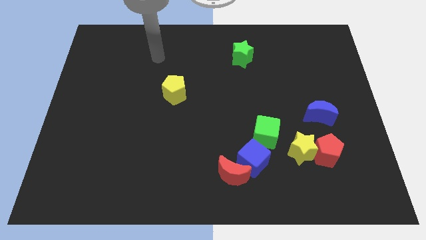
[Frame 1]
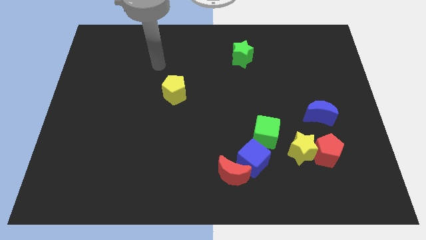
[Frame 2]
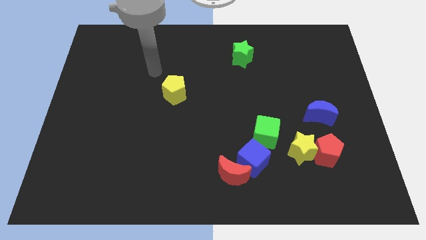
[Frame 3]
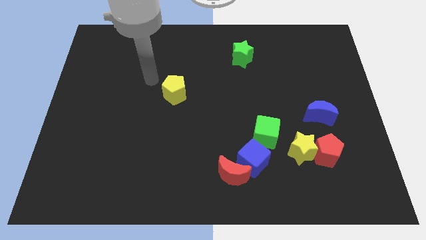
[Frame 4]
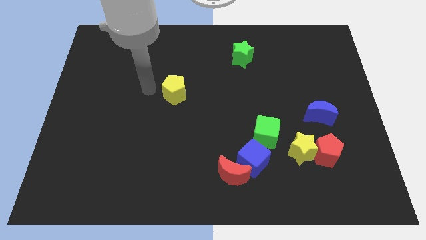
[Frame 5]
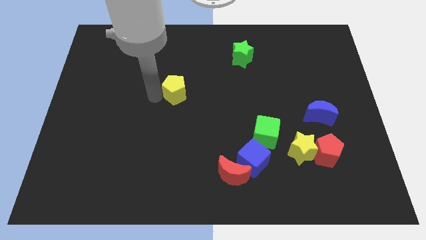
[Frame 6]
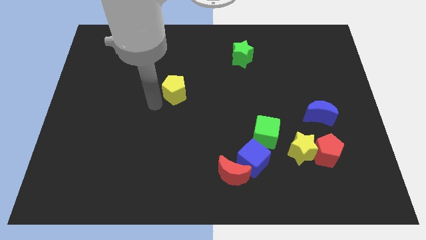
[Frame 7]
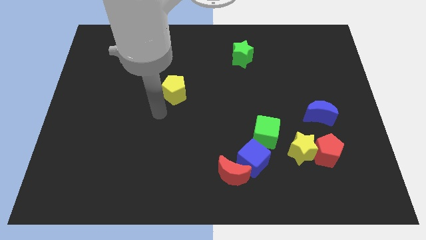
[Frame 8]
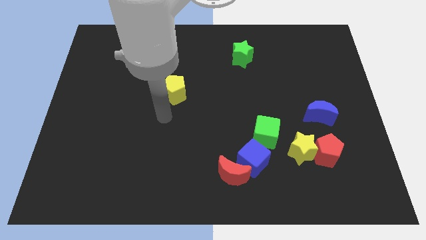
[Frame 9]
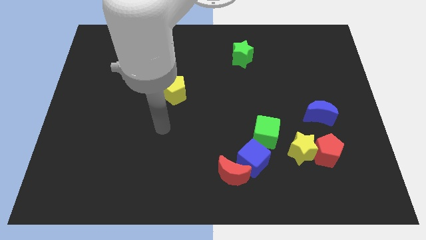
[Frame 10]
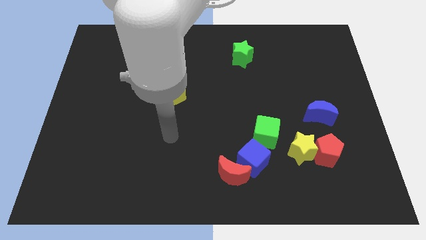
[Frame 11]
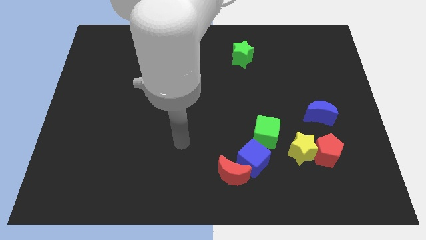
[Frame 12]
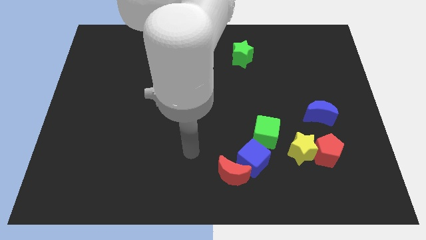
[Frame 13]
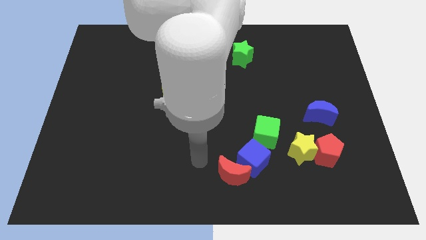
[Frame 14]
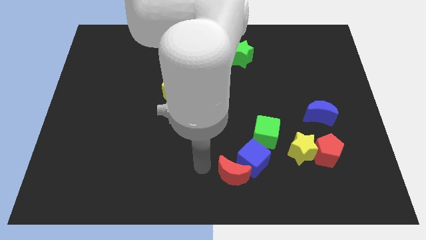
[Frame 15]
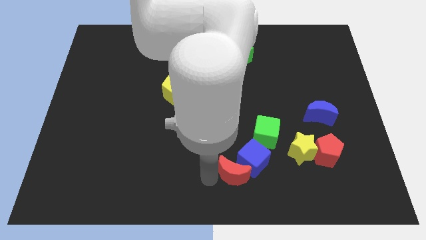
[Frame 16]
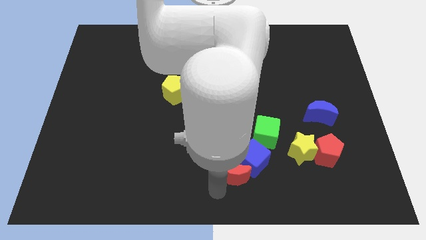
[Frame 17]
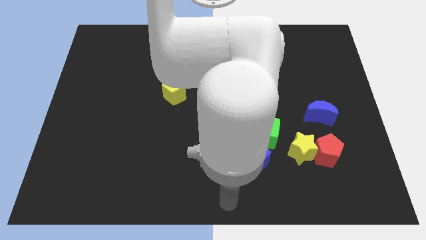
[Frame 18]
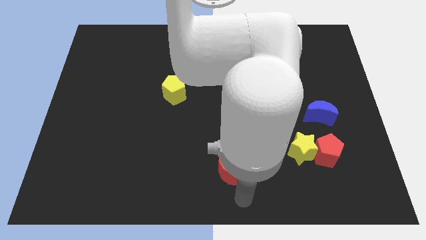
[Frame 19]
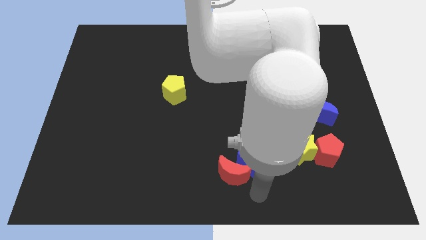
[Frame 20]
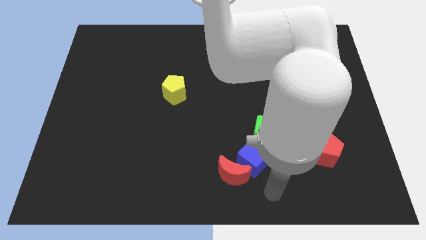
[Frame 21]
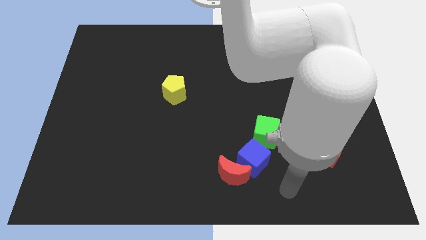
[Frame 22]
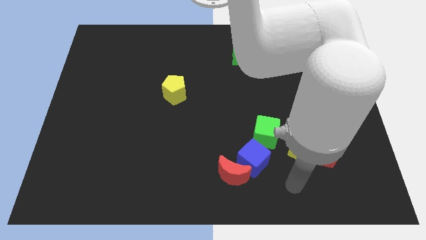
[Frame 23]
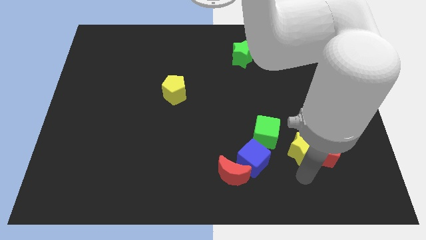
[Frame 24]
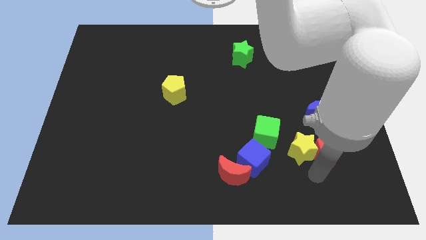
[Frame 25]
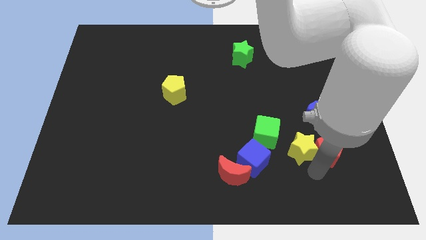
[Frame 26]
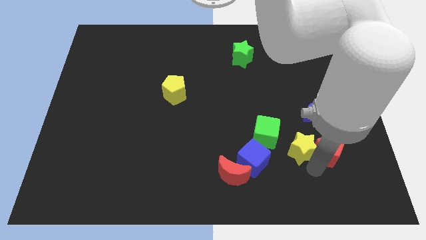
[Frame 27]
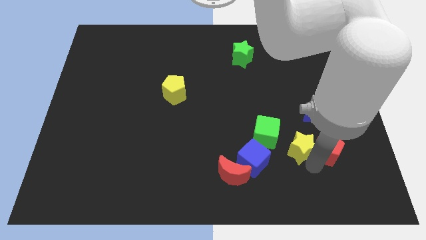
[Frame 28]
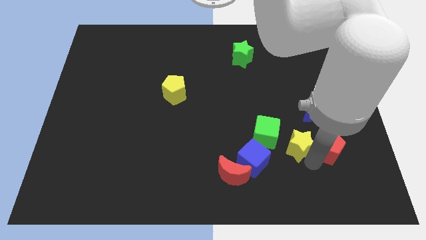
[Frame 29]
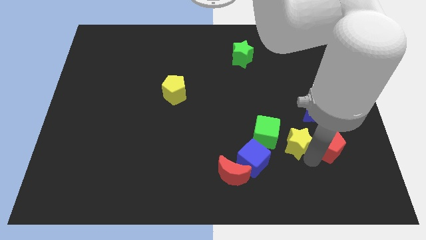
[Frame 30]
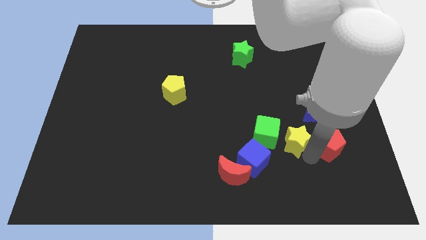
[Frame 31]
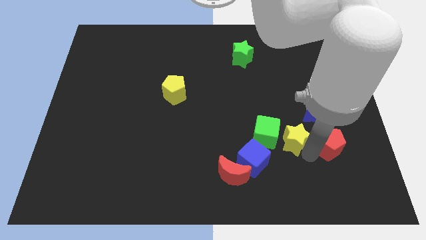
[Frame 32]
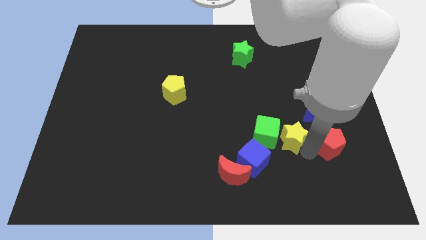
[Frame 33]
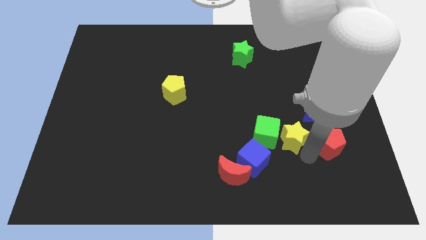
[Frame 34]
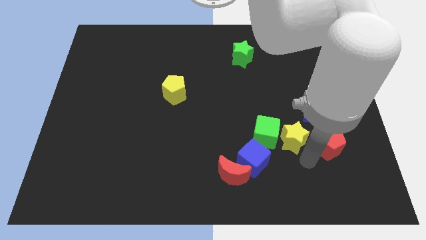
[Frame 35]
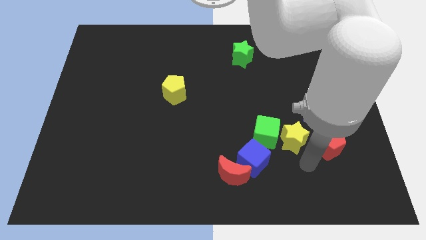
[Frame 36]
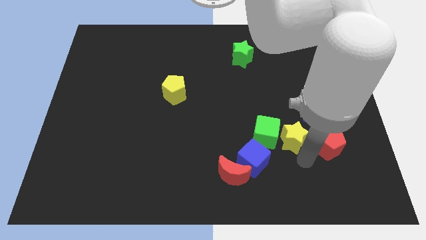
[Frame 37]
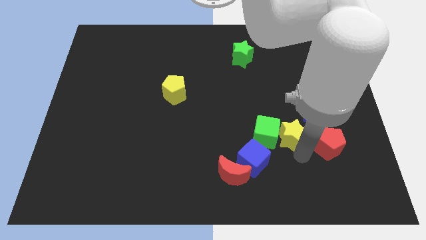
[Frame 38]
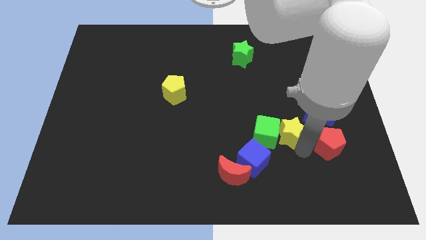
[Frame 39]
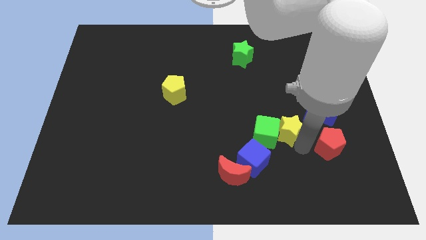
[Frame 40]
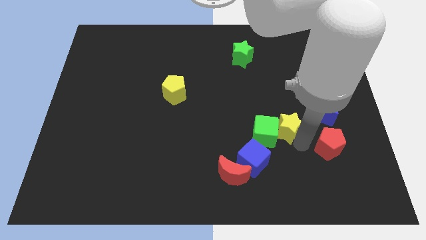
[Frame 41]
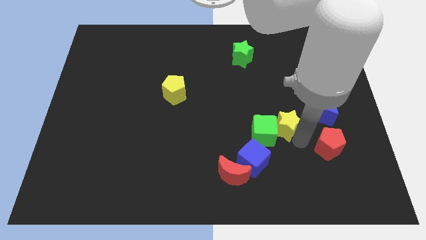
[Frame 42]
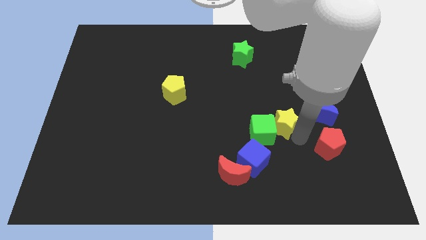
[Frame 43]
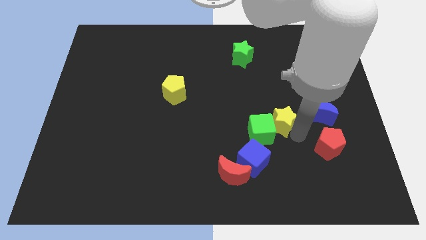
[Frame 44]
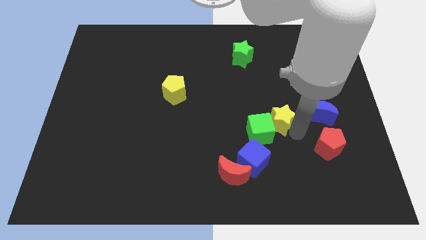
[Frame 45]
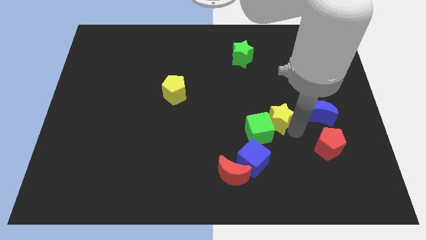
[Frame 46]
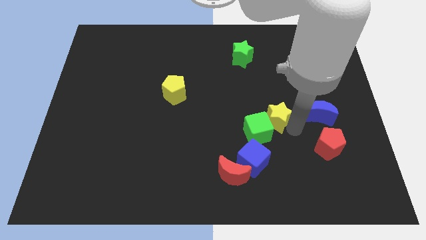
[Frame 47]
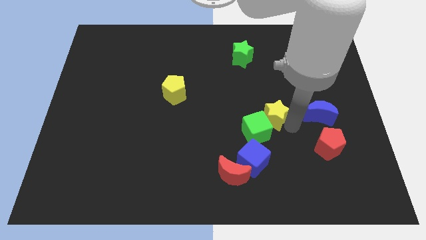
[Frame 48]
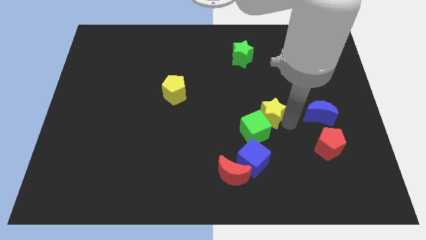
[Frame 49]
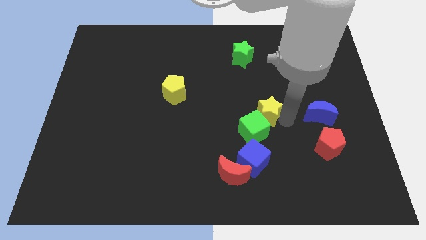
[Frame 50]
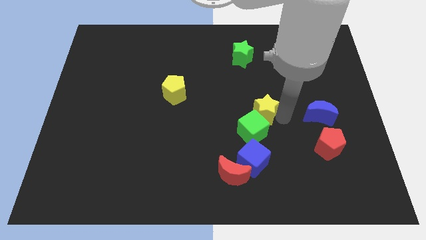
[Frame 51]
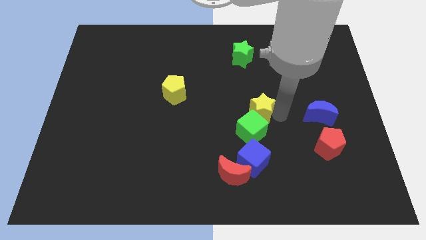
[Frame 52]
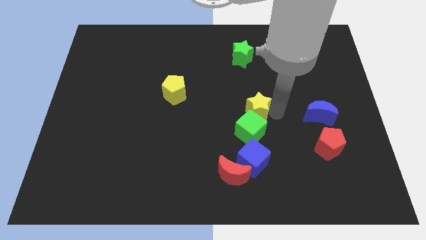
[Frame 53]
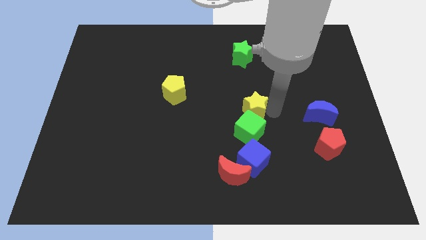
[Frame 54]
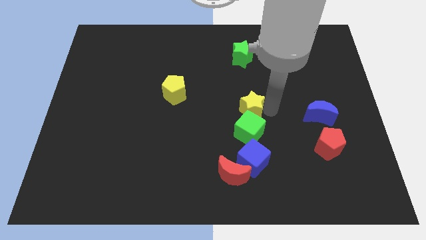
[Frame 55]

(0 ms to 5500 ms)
push the yellow star to the top left of the green cube

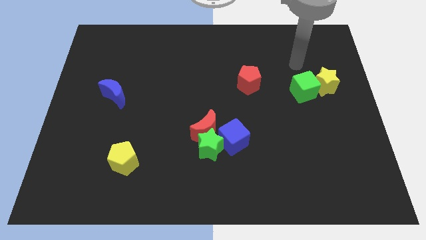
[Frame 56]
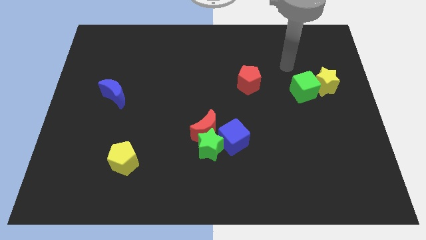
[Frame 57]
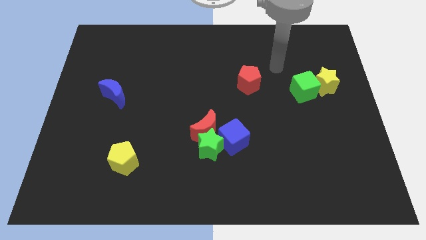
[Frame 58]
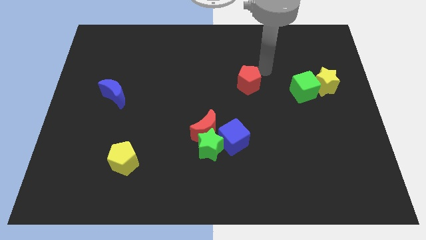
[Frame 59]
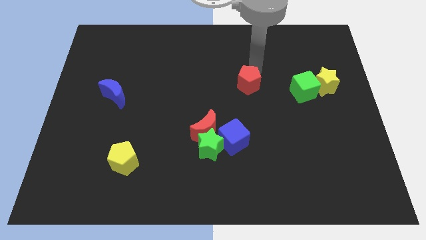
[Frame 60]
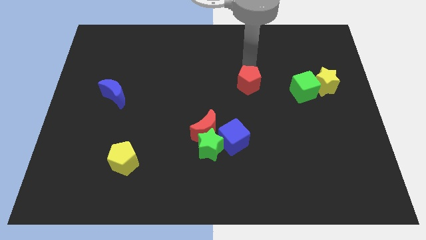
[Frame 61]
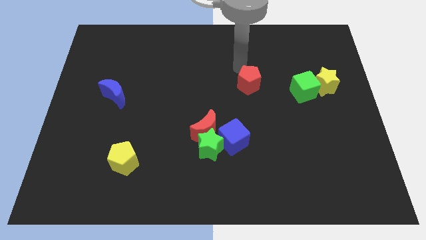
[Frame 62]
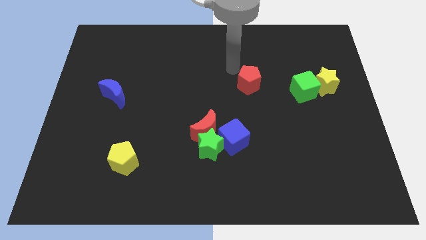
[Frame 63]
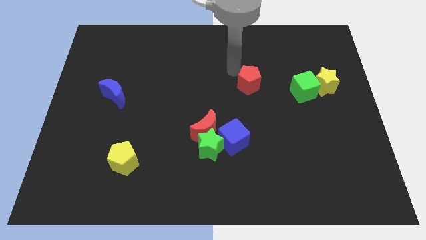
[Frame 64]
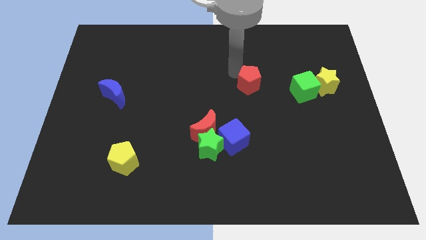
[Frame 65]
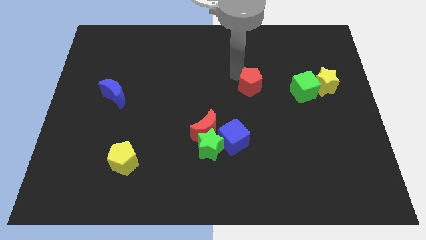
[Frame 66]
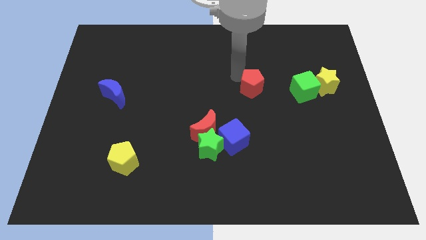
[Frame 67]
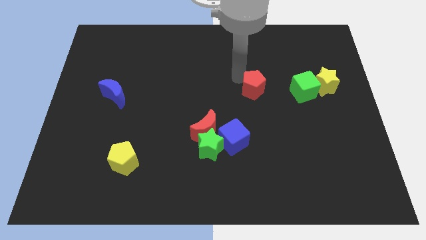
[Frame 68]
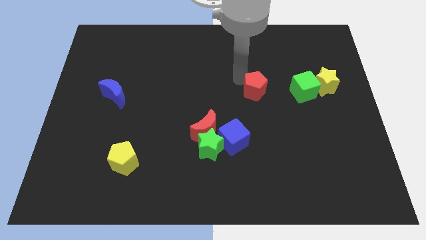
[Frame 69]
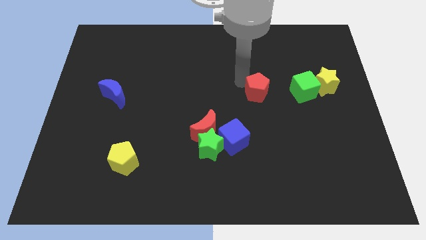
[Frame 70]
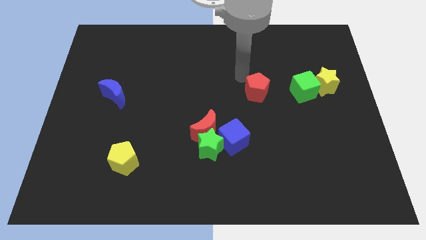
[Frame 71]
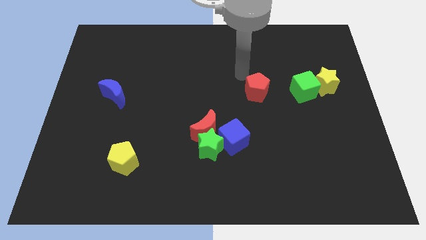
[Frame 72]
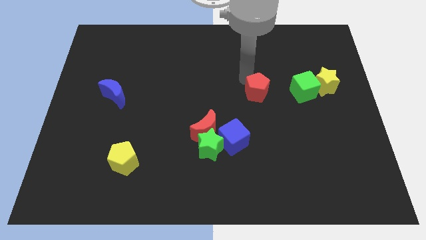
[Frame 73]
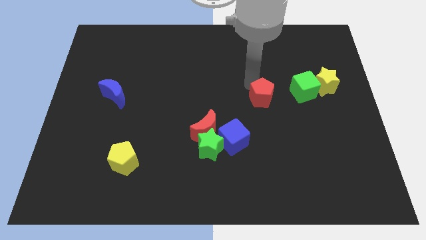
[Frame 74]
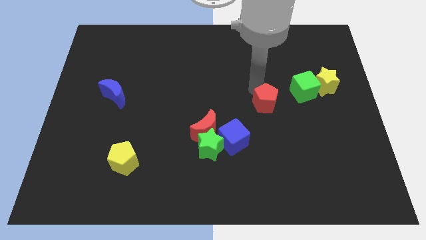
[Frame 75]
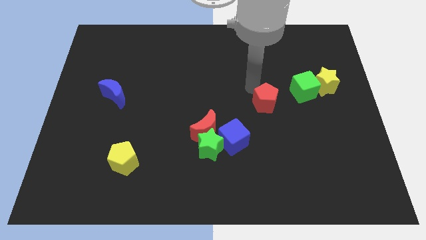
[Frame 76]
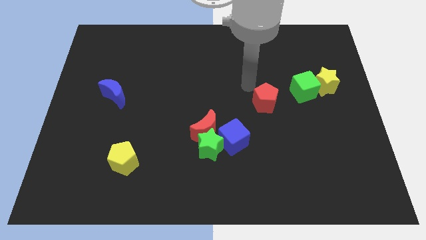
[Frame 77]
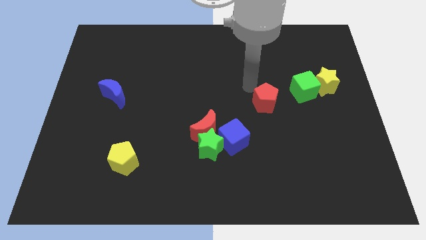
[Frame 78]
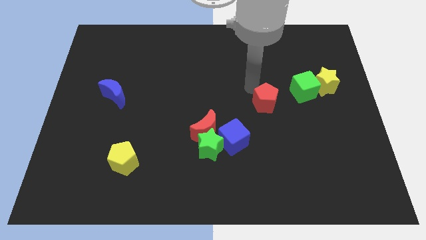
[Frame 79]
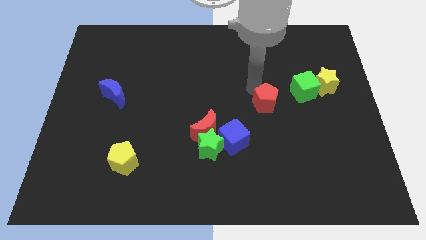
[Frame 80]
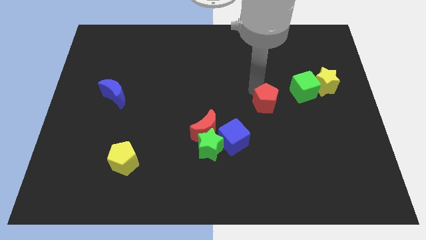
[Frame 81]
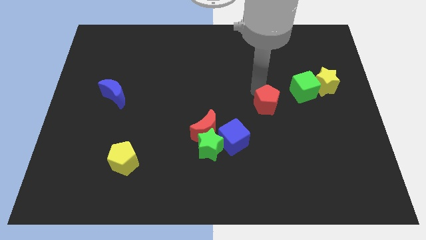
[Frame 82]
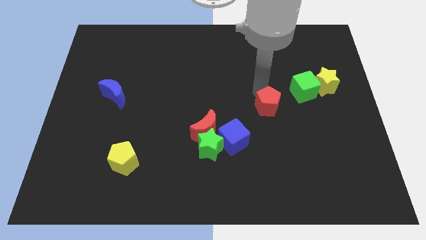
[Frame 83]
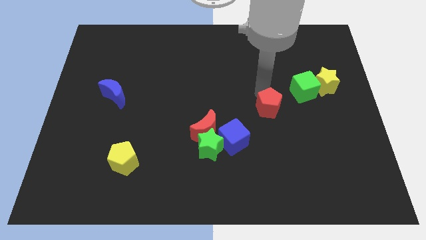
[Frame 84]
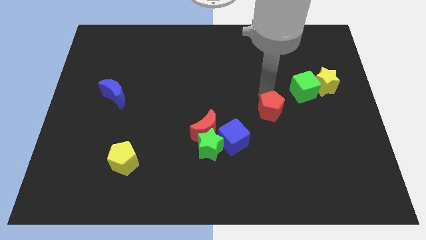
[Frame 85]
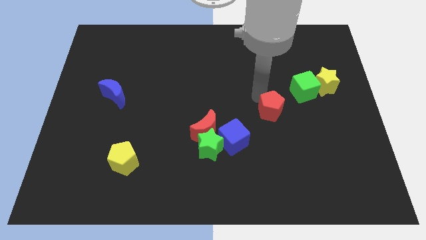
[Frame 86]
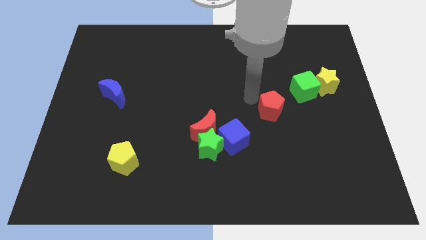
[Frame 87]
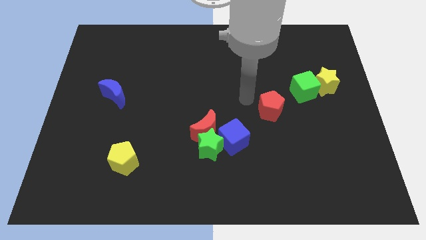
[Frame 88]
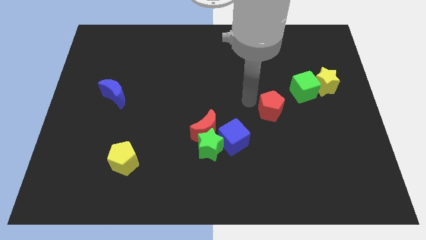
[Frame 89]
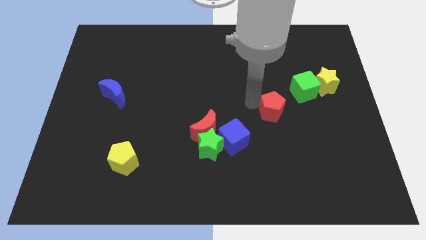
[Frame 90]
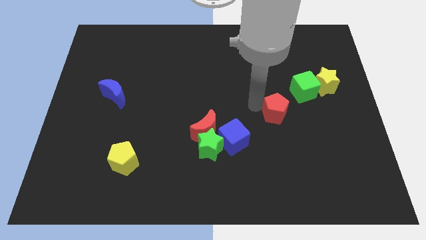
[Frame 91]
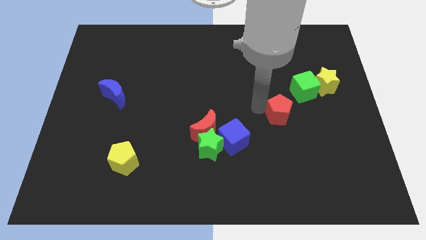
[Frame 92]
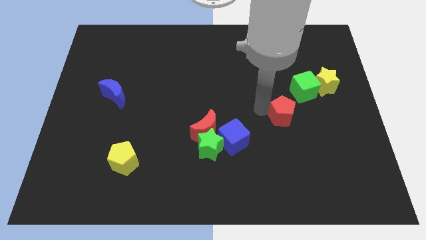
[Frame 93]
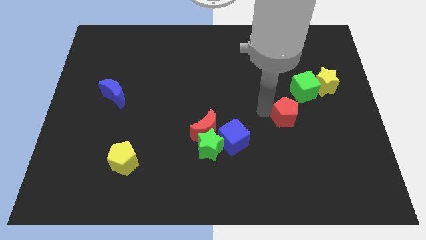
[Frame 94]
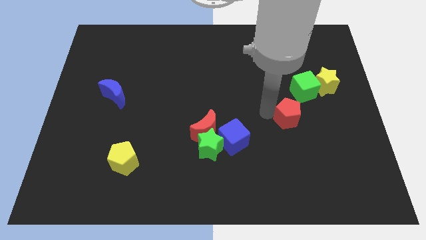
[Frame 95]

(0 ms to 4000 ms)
move the red pentagon below the green cube
